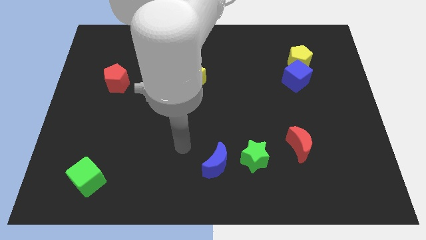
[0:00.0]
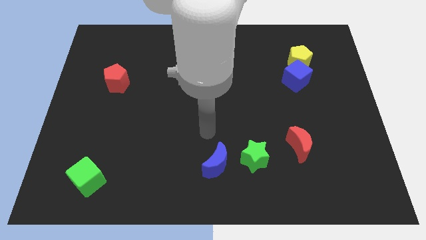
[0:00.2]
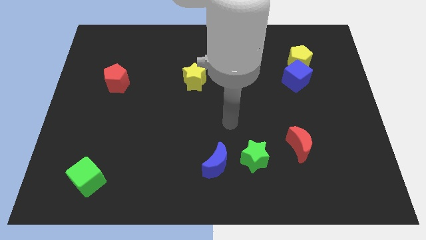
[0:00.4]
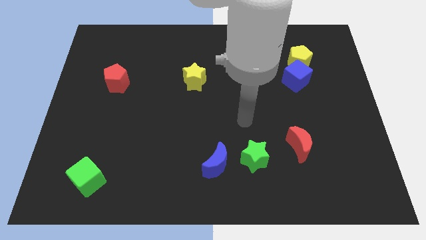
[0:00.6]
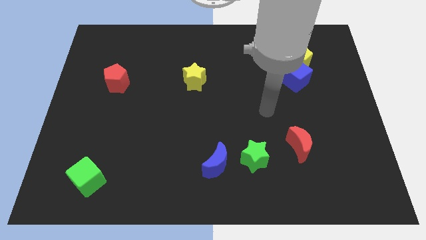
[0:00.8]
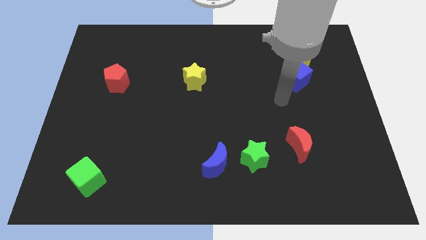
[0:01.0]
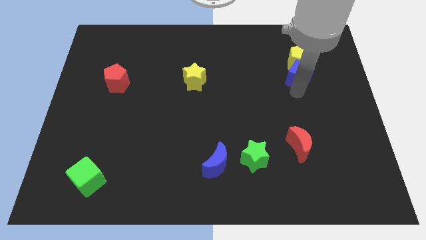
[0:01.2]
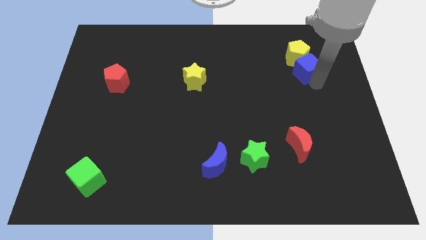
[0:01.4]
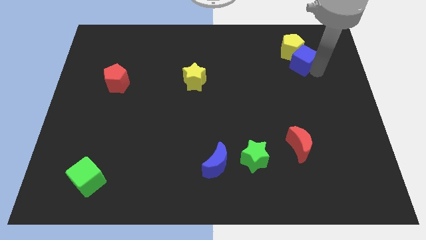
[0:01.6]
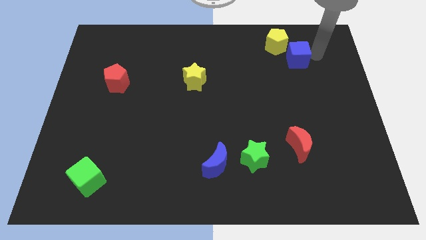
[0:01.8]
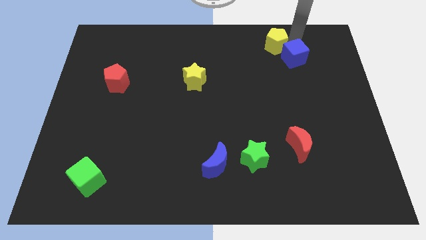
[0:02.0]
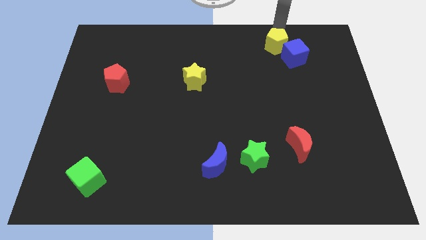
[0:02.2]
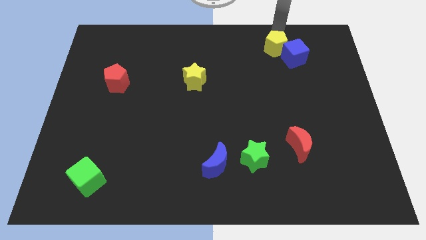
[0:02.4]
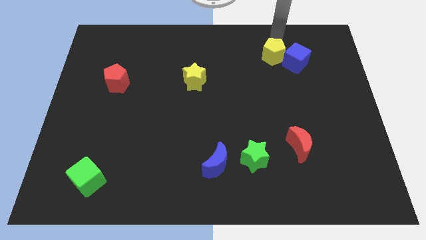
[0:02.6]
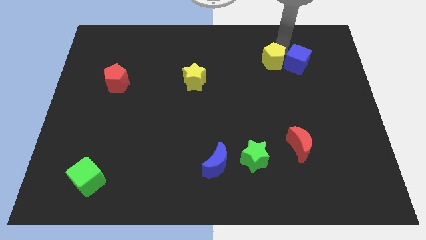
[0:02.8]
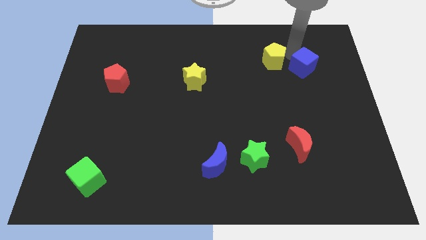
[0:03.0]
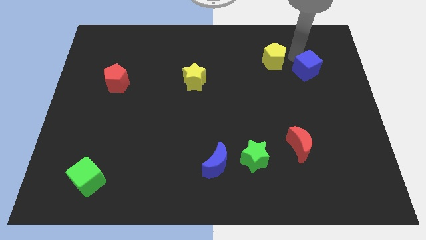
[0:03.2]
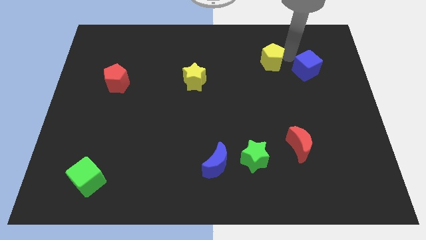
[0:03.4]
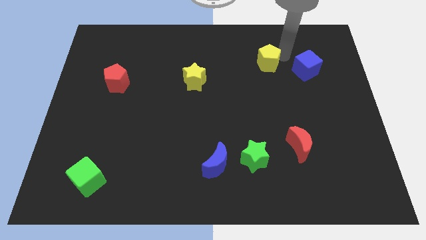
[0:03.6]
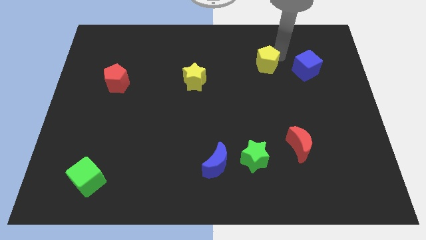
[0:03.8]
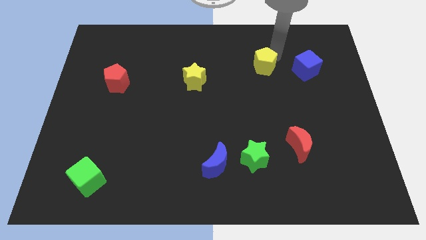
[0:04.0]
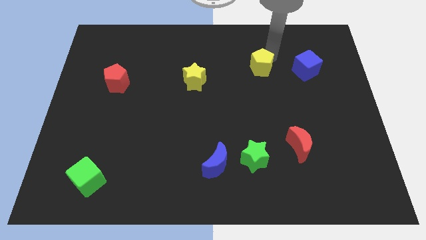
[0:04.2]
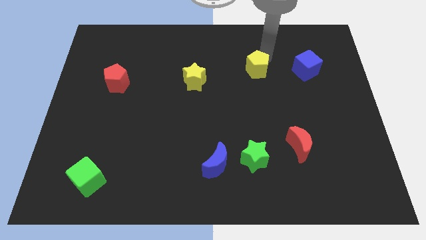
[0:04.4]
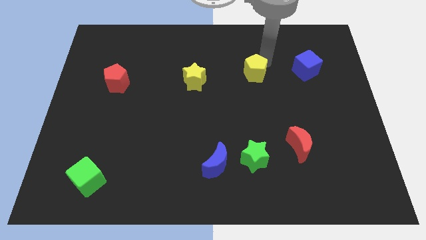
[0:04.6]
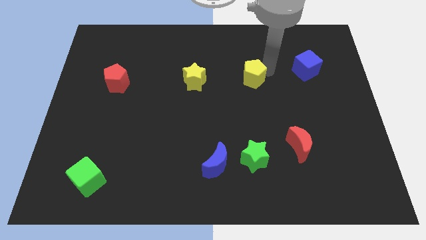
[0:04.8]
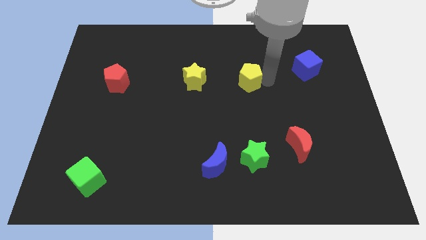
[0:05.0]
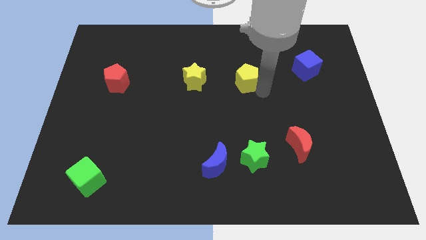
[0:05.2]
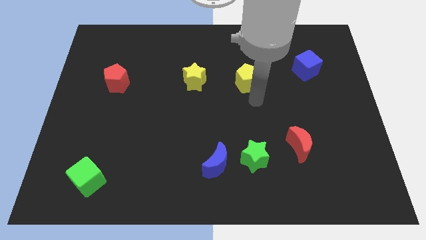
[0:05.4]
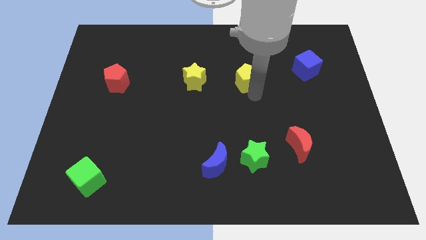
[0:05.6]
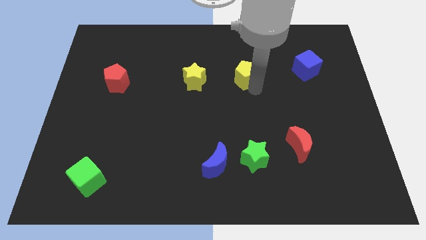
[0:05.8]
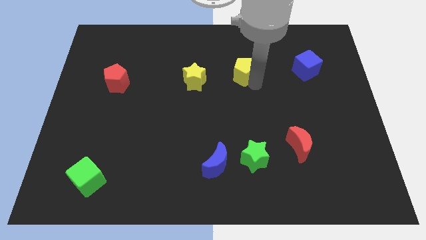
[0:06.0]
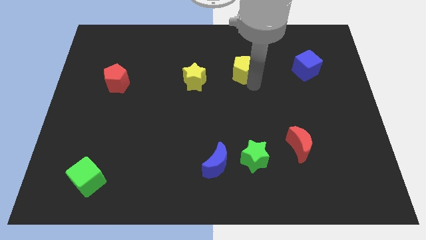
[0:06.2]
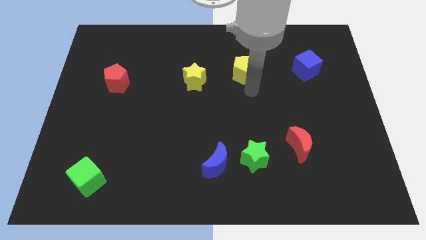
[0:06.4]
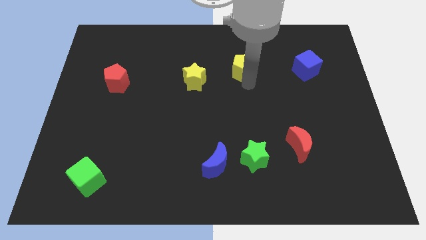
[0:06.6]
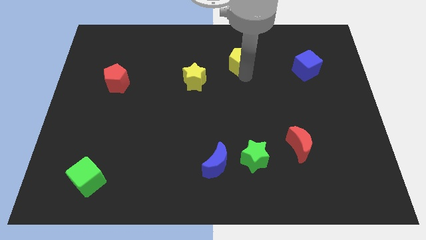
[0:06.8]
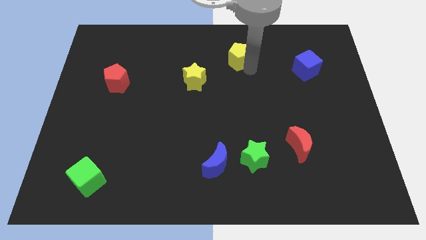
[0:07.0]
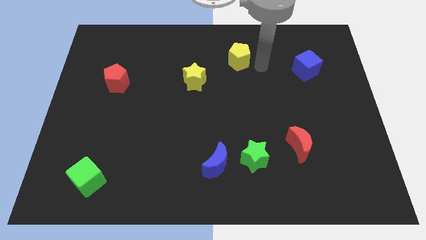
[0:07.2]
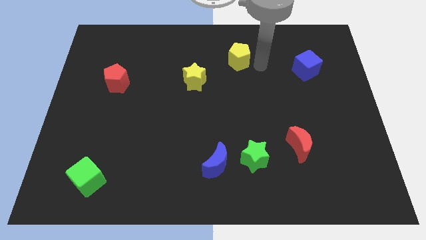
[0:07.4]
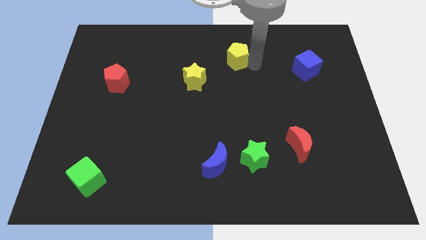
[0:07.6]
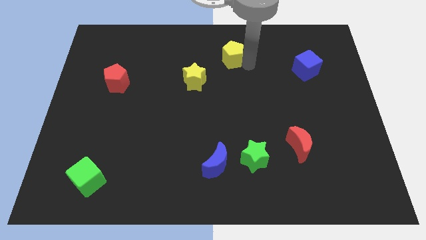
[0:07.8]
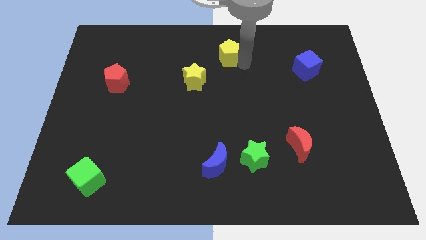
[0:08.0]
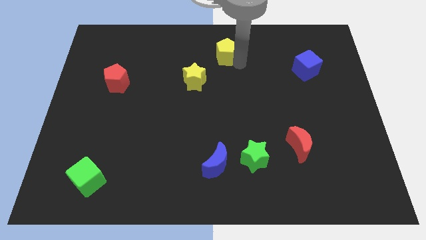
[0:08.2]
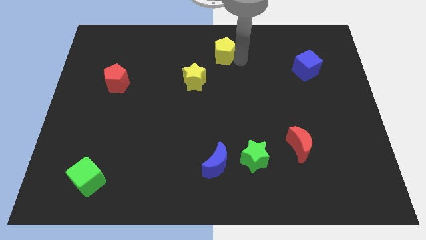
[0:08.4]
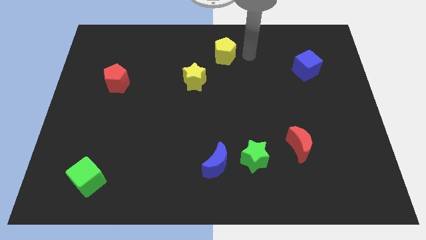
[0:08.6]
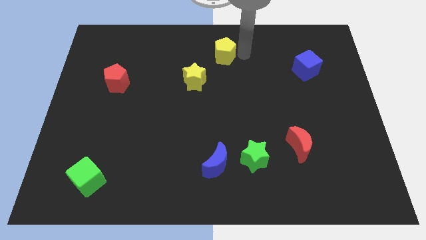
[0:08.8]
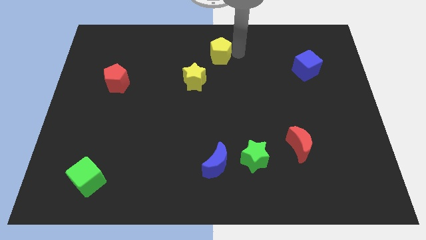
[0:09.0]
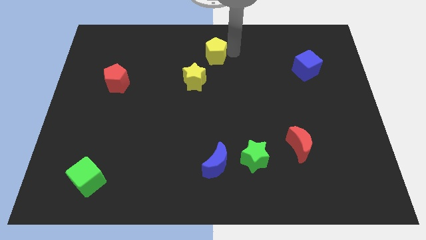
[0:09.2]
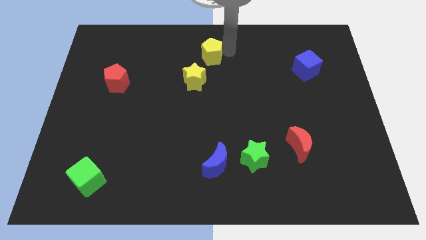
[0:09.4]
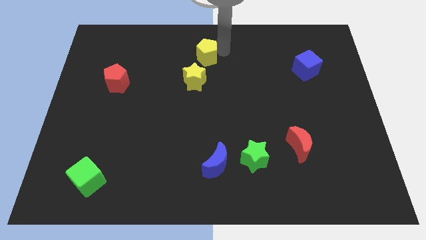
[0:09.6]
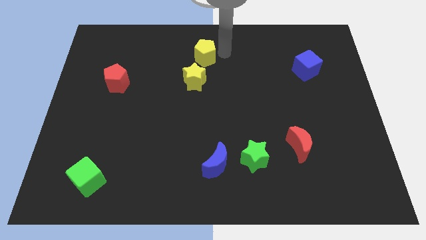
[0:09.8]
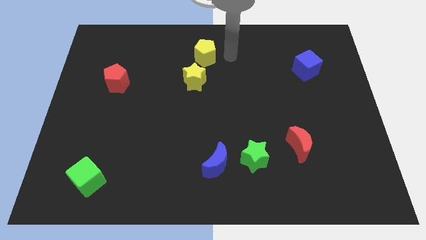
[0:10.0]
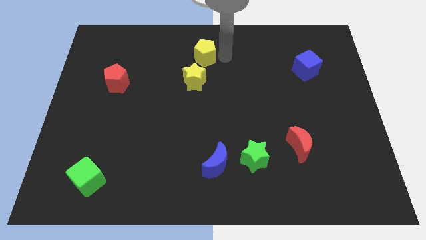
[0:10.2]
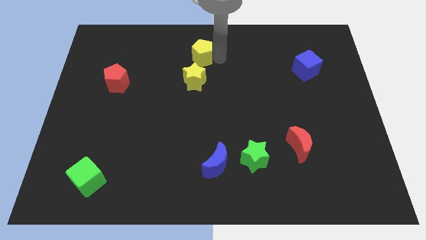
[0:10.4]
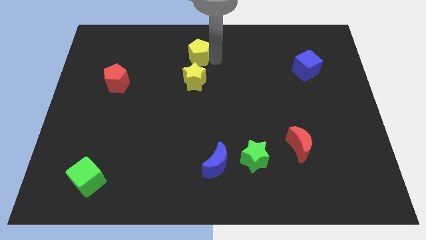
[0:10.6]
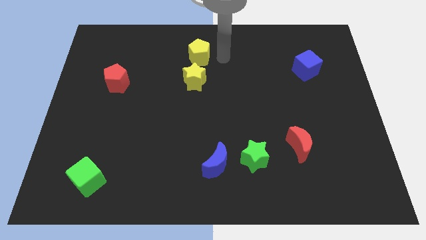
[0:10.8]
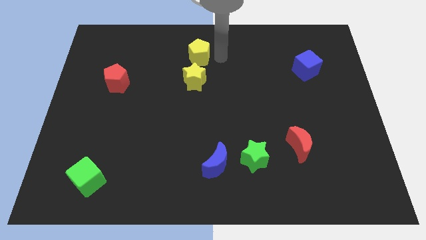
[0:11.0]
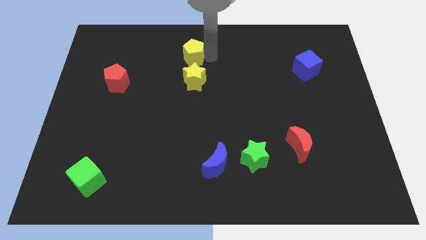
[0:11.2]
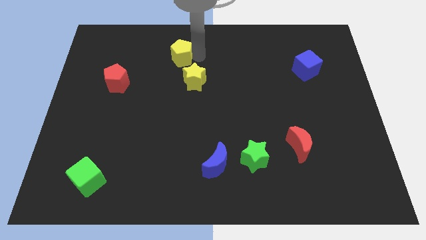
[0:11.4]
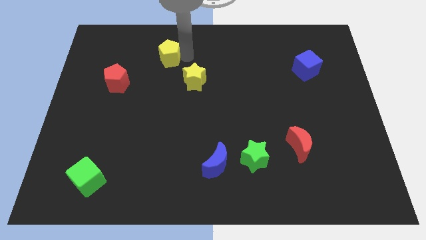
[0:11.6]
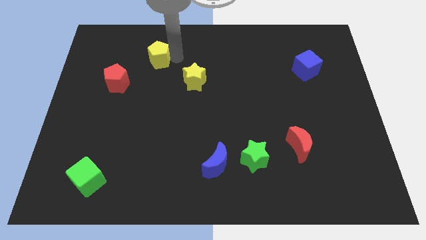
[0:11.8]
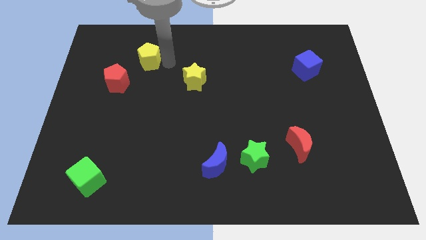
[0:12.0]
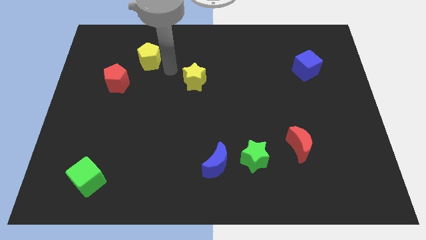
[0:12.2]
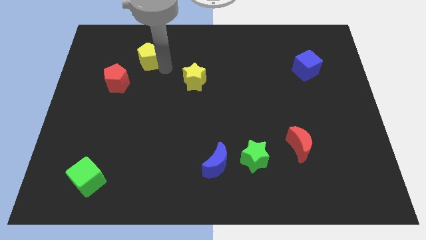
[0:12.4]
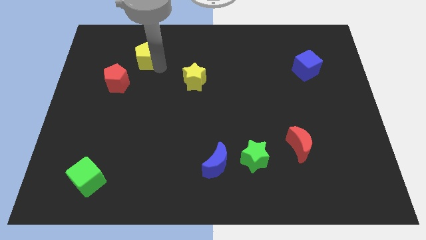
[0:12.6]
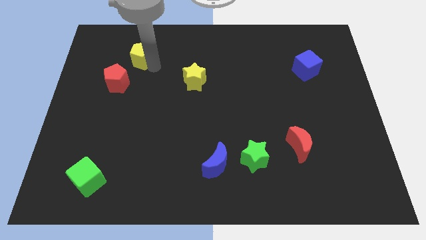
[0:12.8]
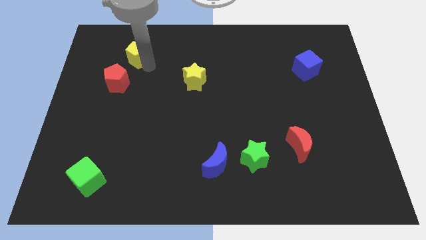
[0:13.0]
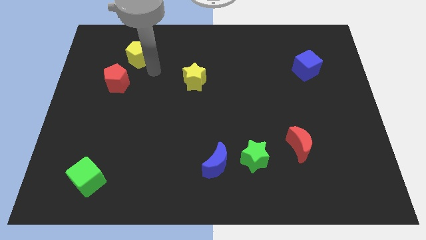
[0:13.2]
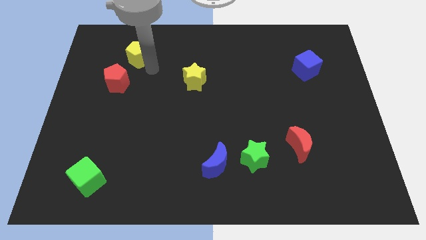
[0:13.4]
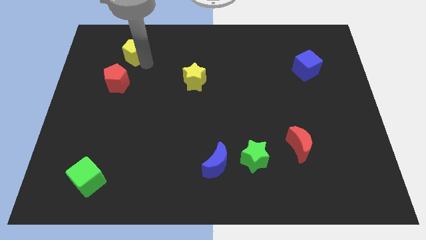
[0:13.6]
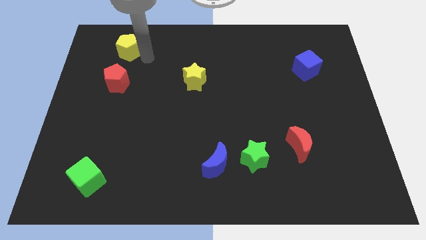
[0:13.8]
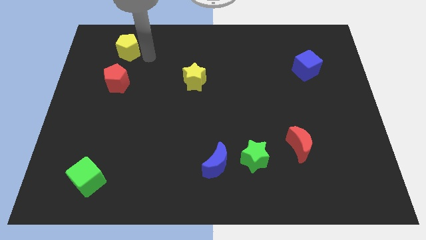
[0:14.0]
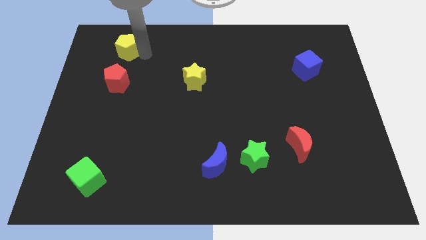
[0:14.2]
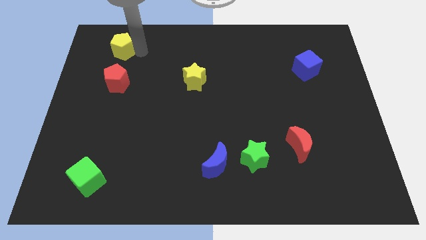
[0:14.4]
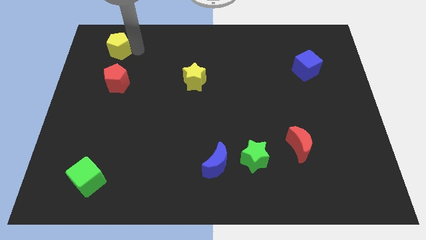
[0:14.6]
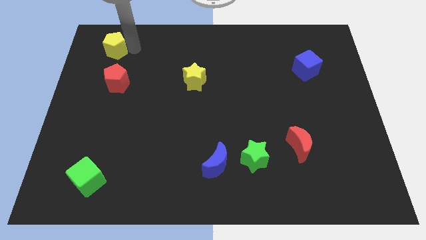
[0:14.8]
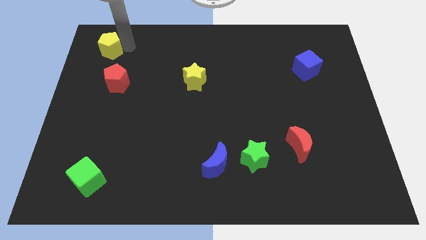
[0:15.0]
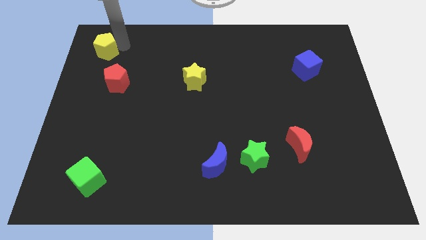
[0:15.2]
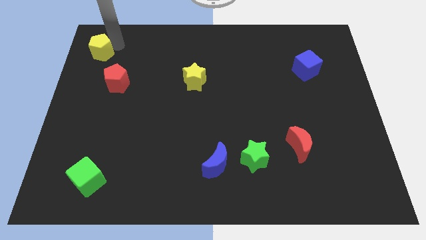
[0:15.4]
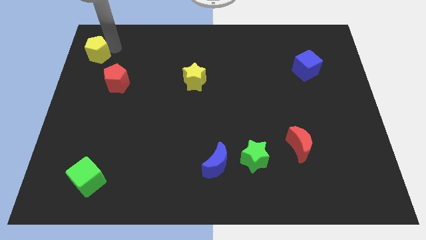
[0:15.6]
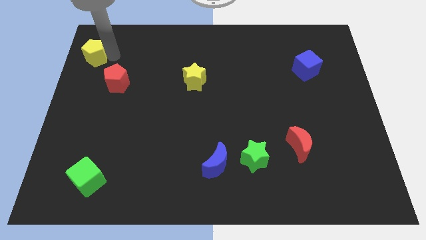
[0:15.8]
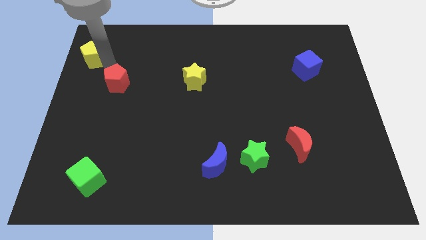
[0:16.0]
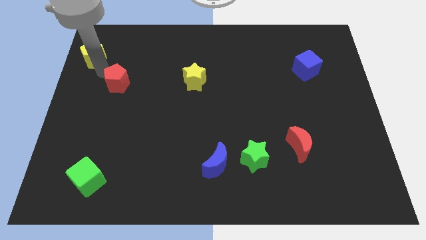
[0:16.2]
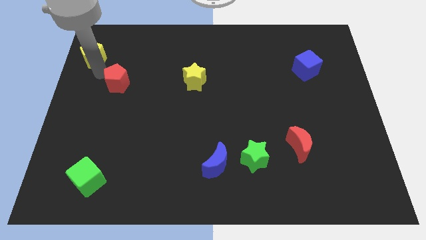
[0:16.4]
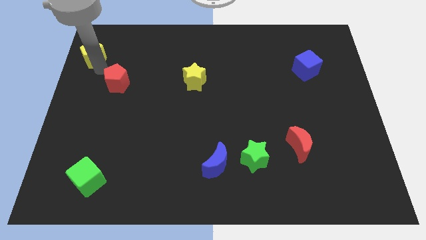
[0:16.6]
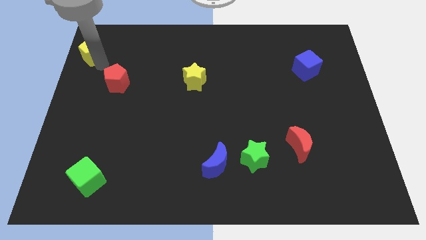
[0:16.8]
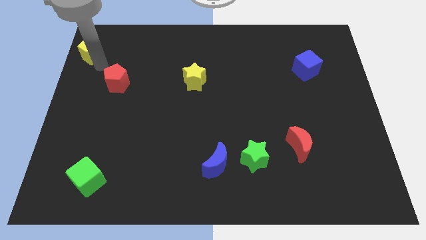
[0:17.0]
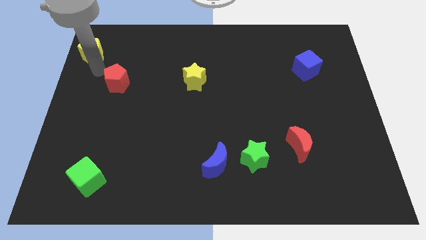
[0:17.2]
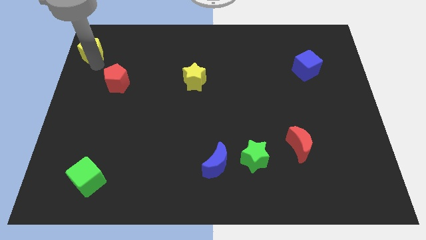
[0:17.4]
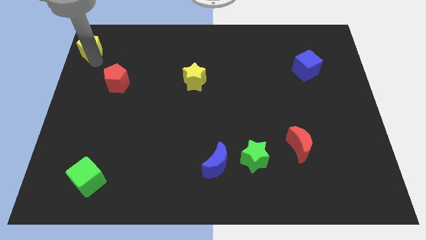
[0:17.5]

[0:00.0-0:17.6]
push the yellow pentagon to the top left
